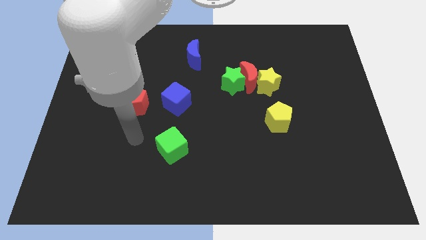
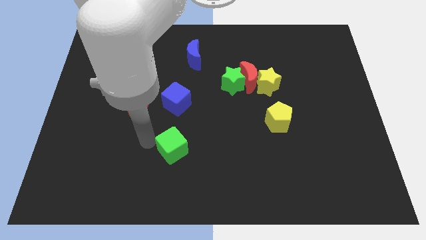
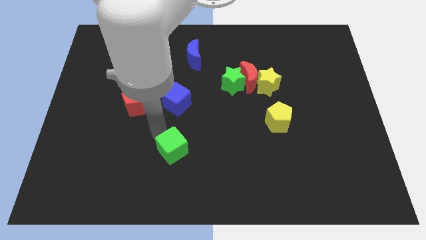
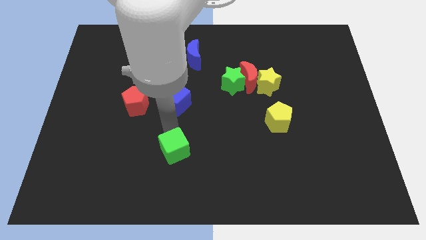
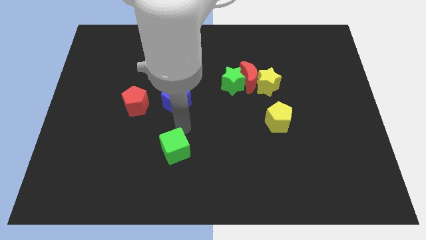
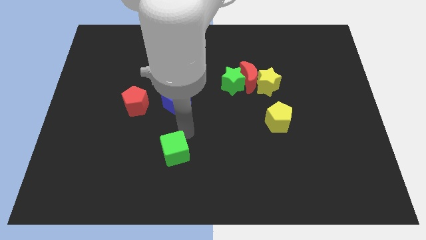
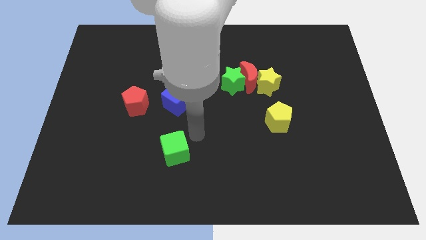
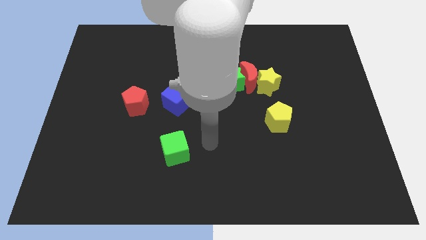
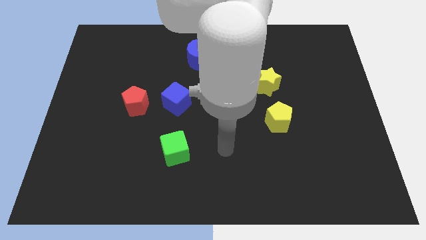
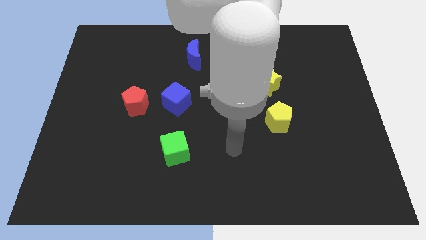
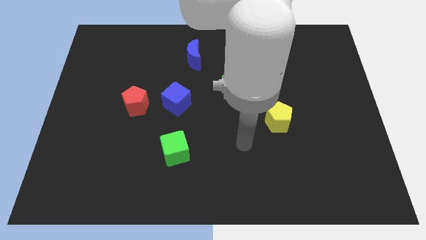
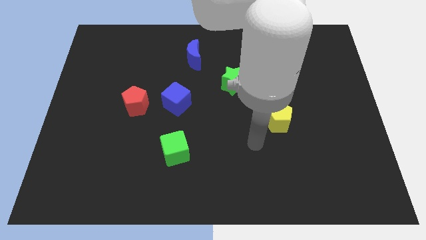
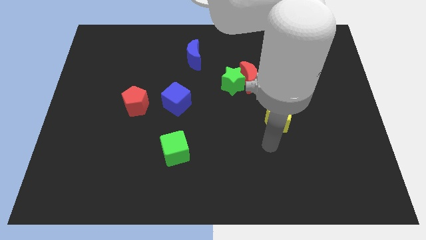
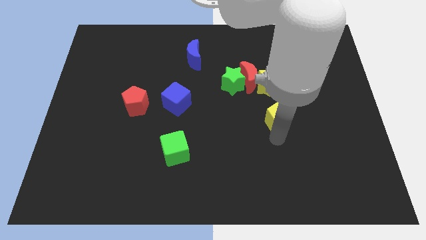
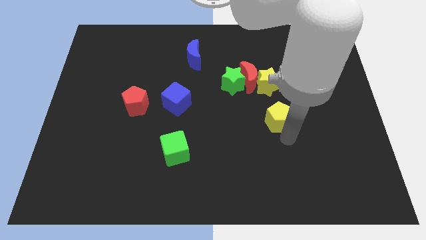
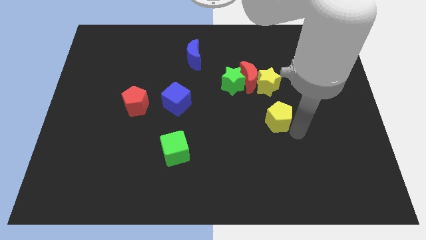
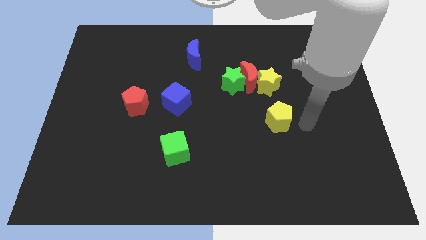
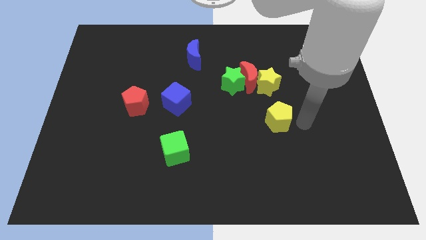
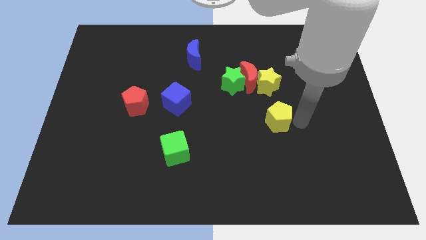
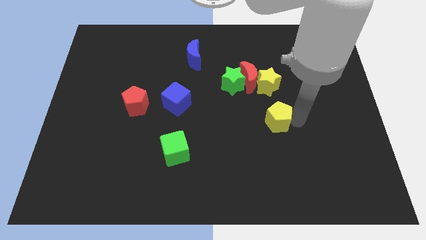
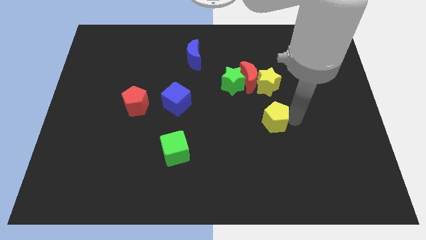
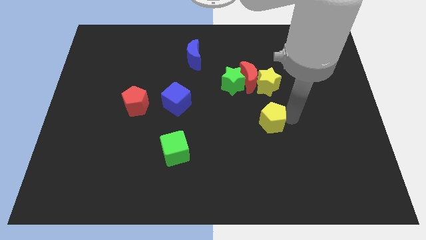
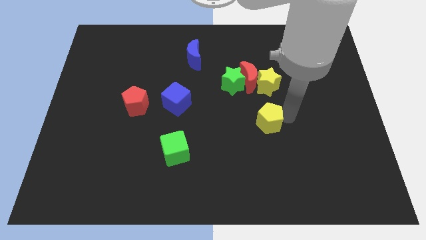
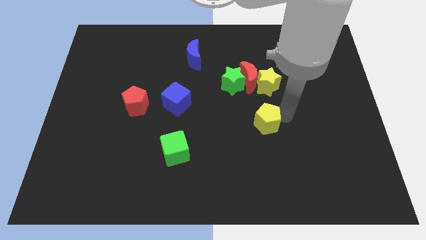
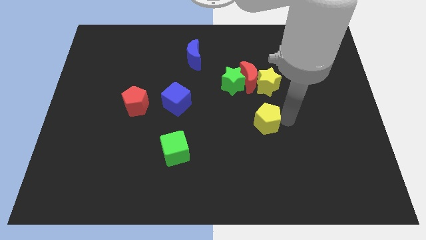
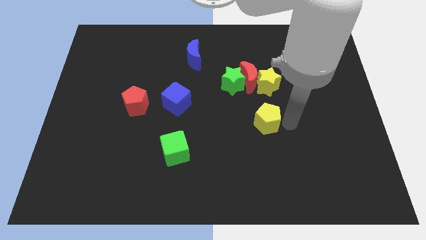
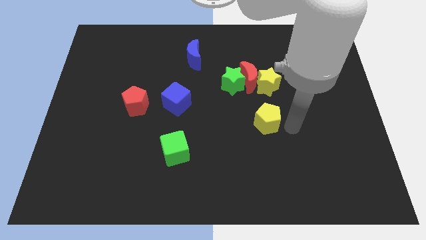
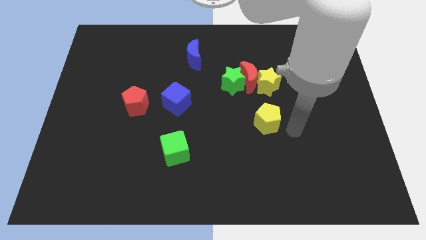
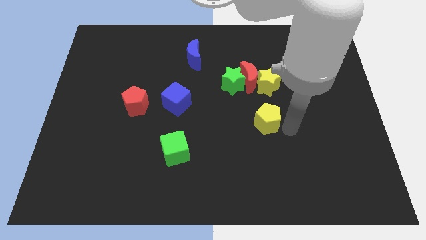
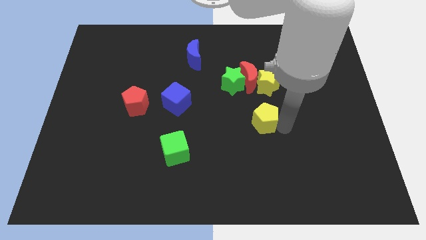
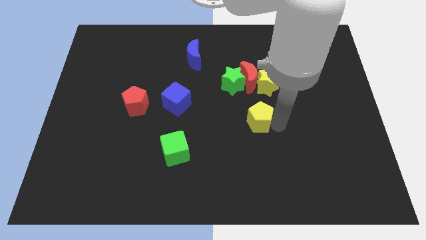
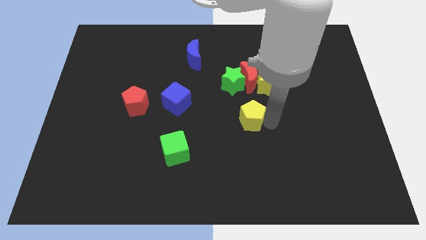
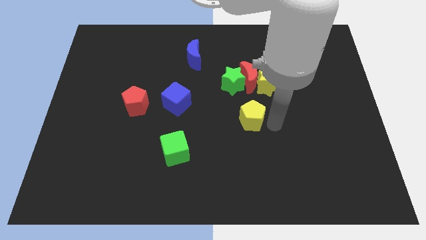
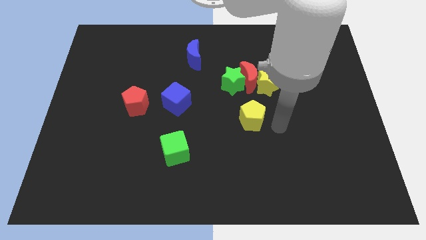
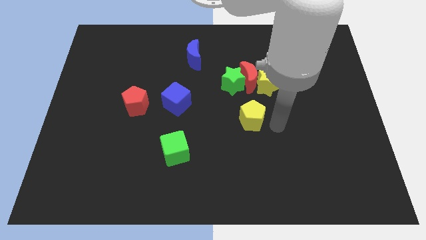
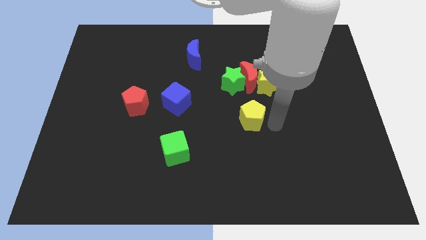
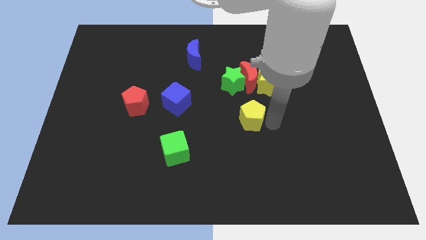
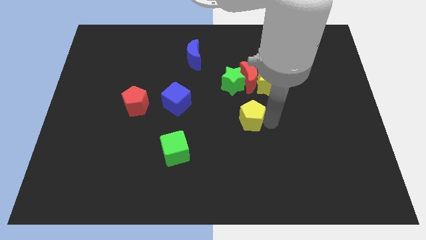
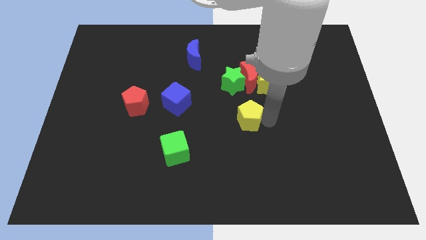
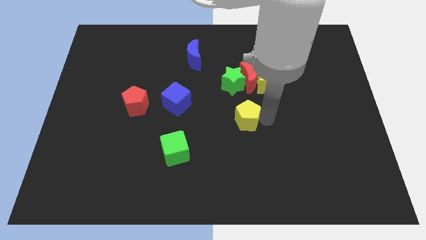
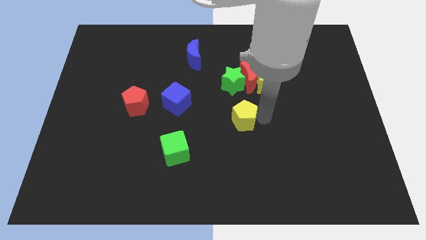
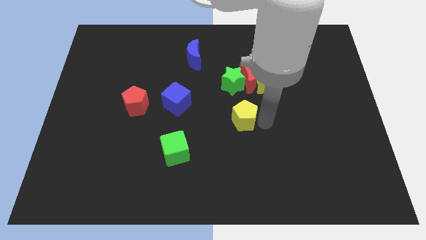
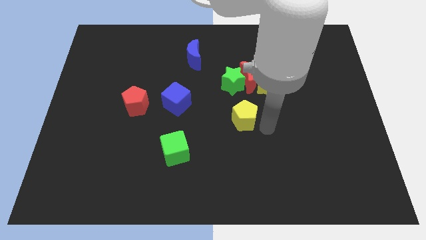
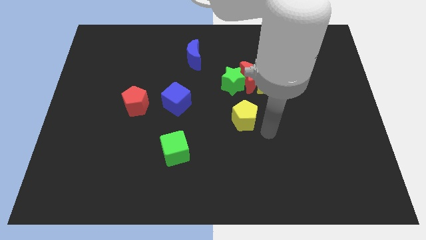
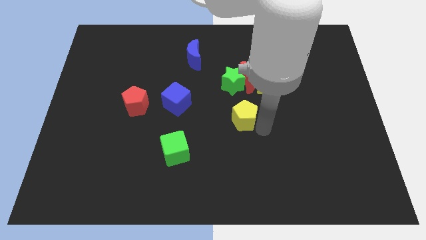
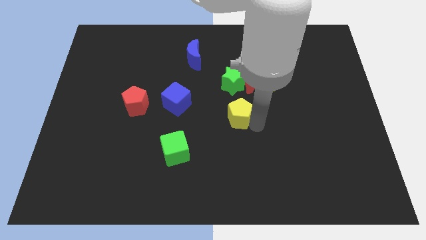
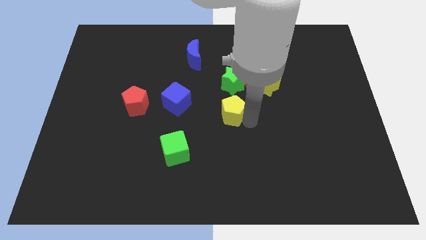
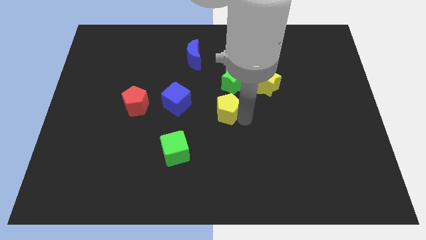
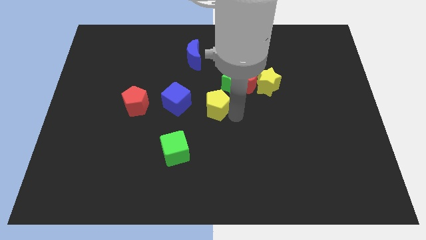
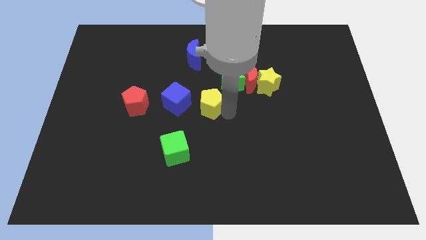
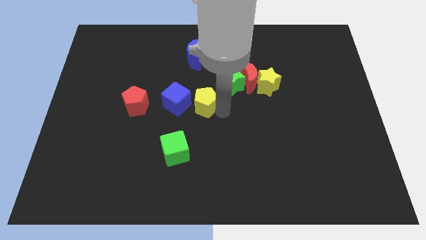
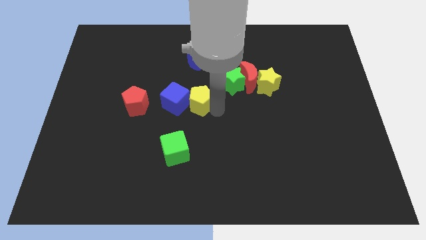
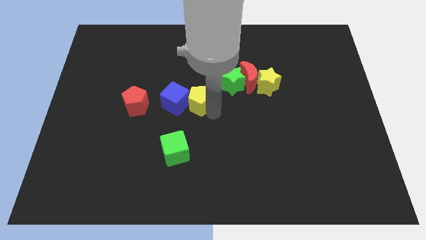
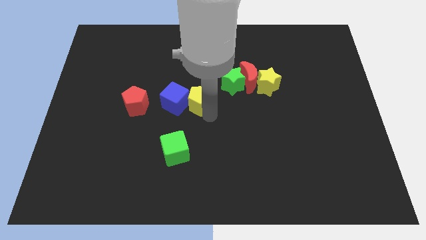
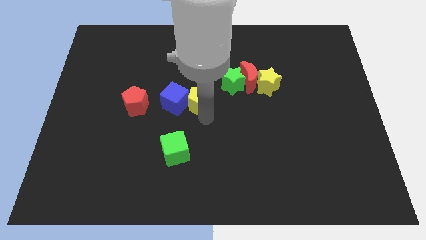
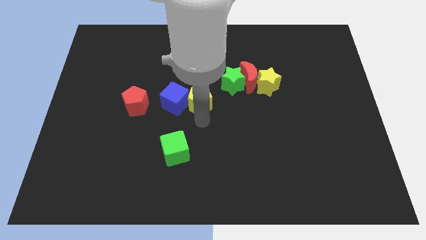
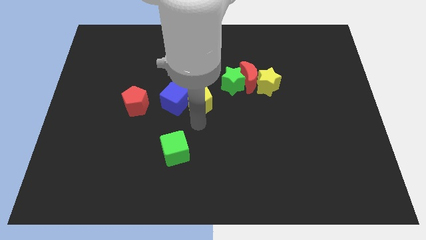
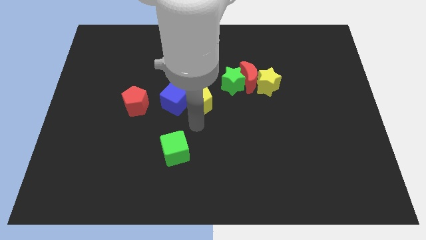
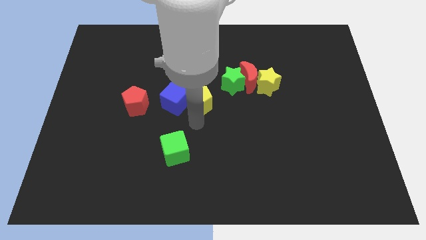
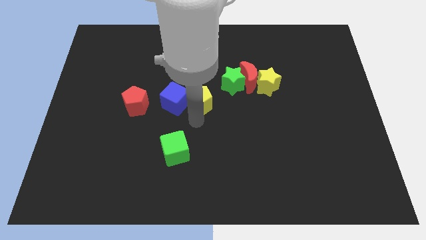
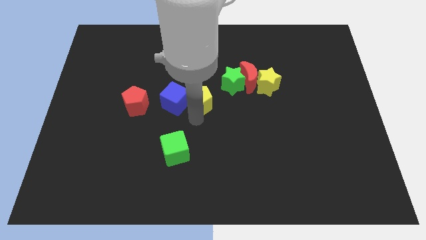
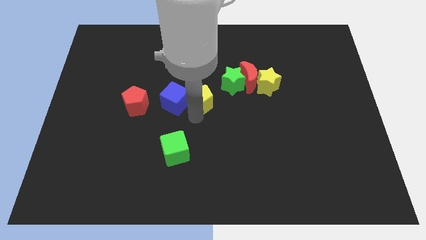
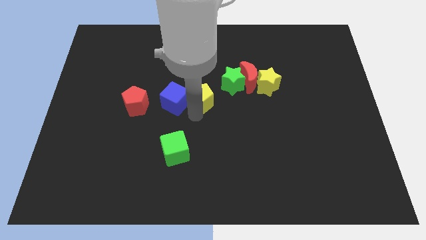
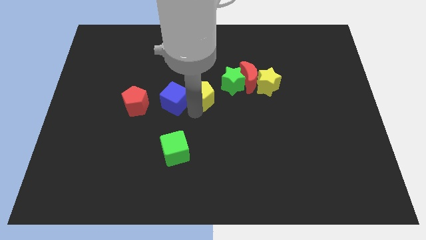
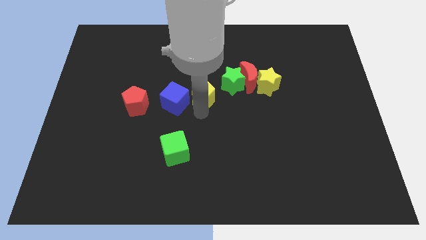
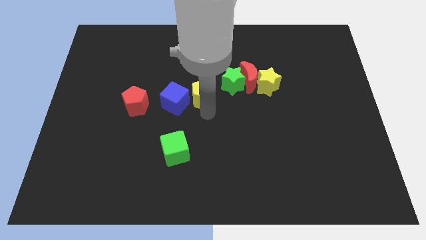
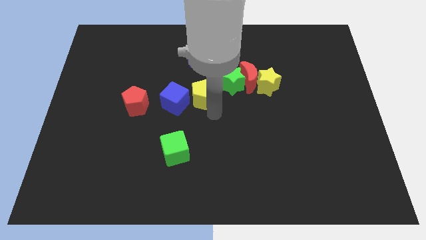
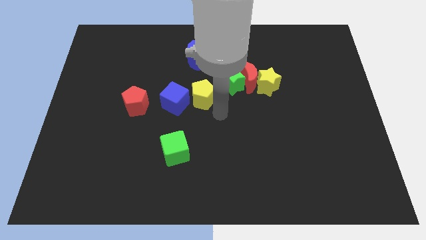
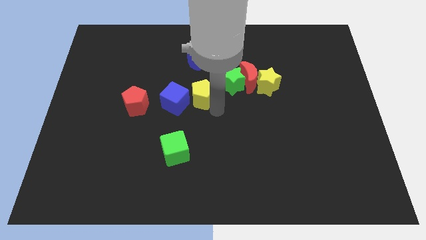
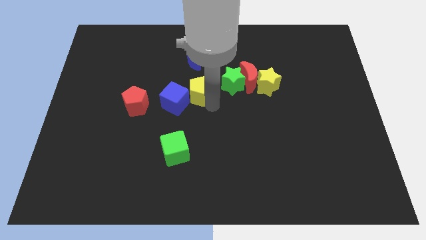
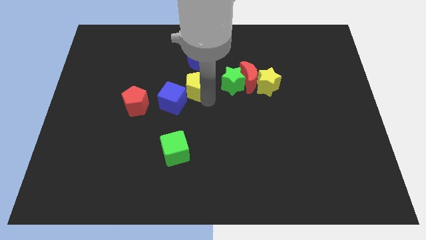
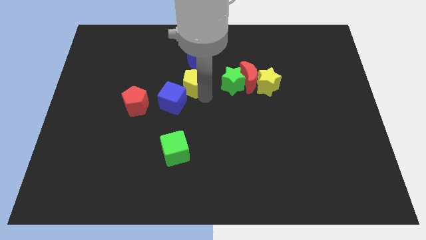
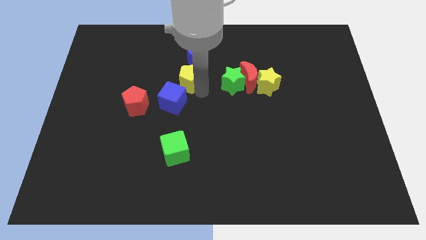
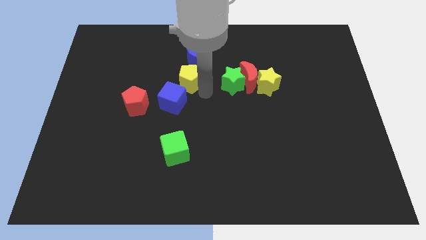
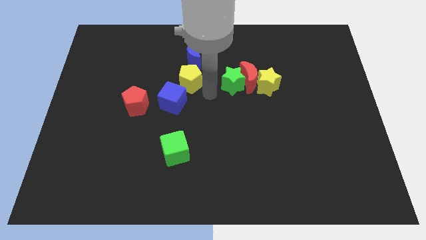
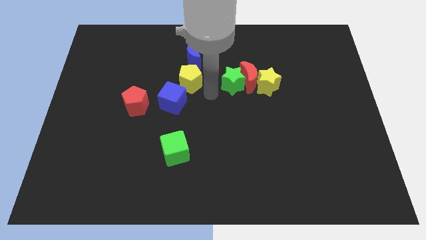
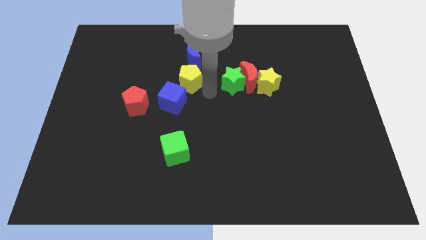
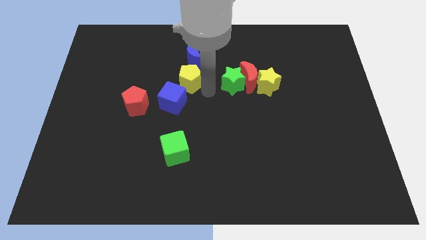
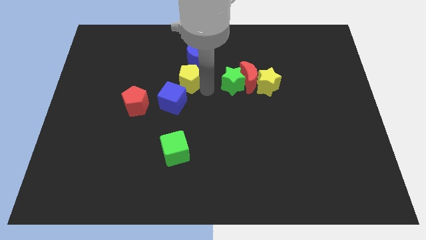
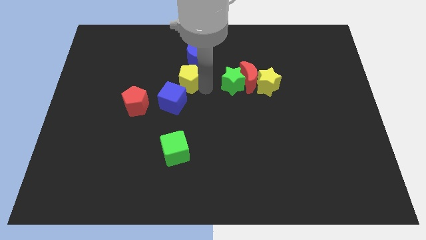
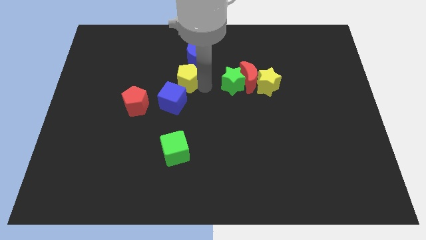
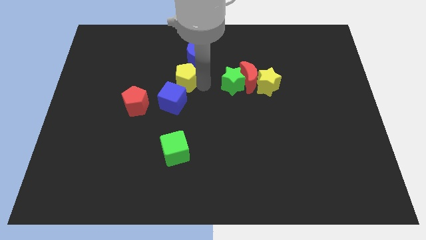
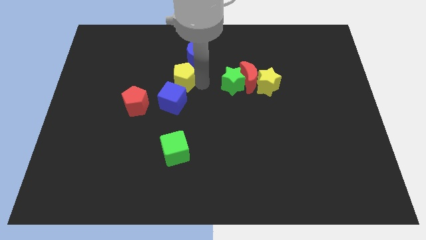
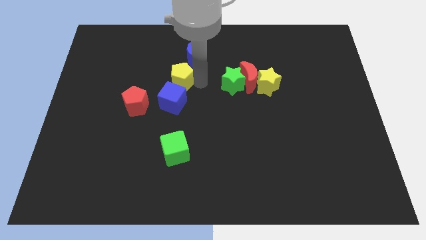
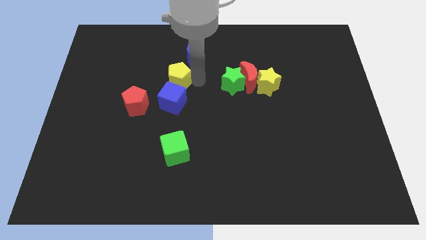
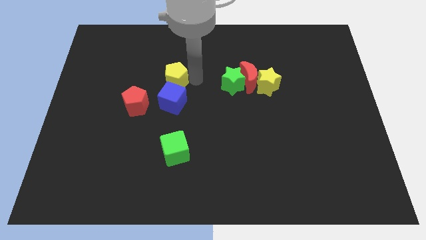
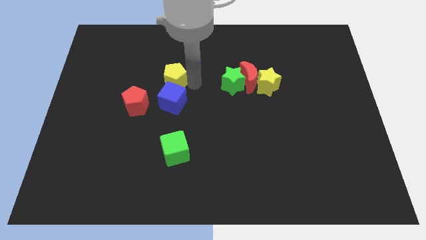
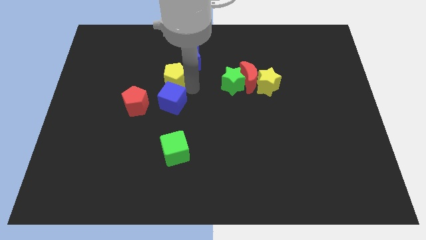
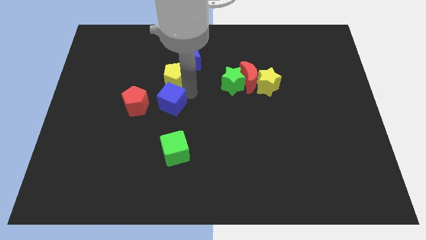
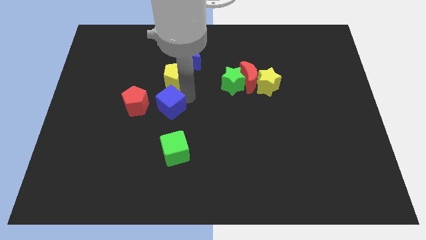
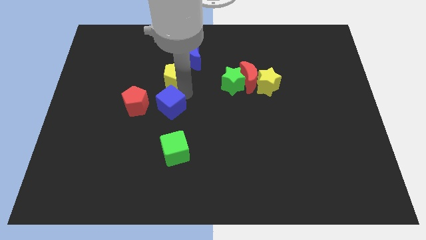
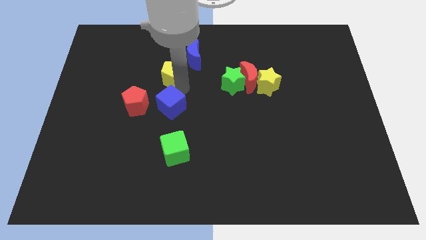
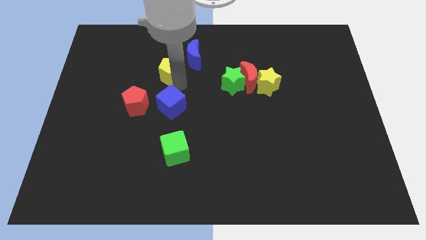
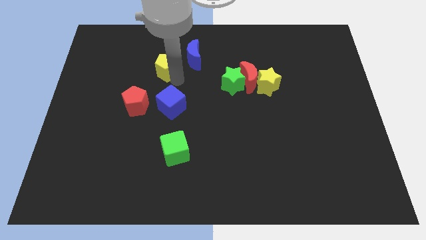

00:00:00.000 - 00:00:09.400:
slide the yellow pentagon left of the blue moon
